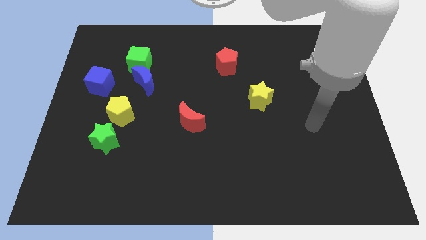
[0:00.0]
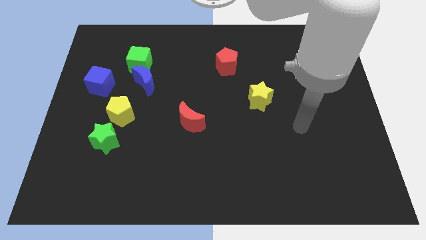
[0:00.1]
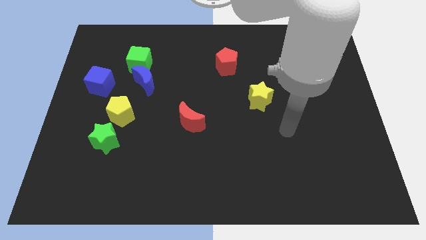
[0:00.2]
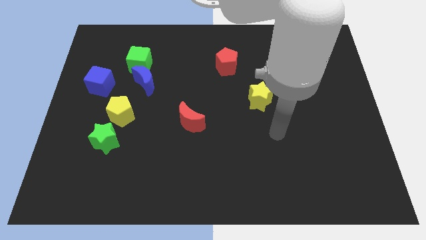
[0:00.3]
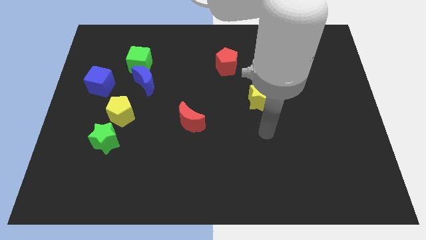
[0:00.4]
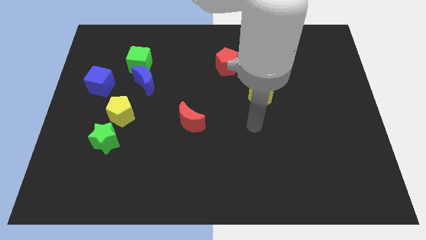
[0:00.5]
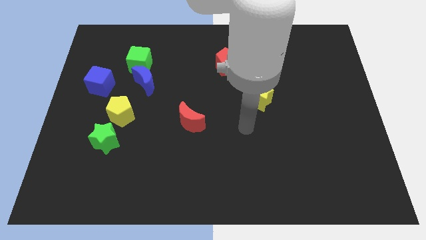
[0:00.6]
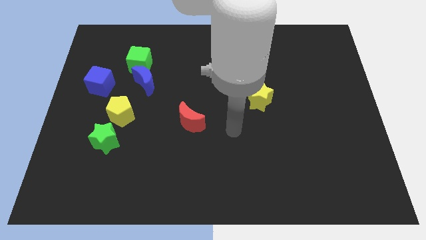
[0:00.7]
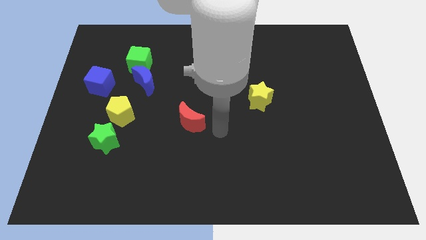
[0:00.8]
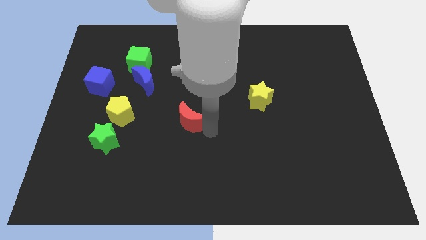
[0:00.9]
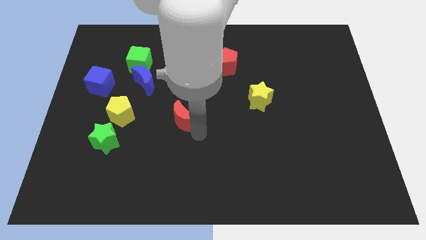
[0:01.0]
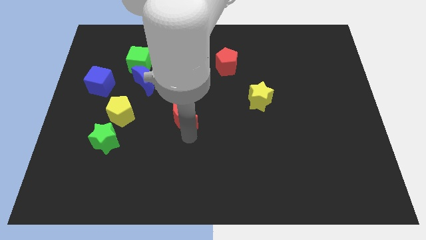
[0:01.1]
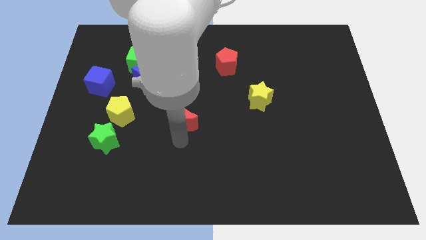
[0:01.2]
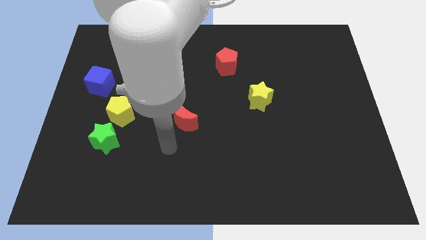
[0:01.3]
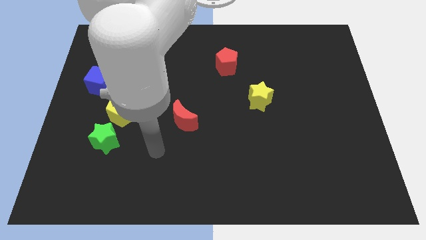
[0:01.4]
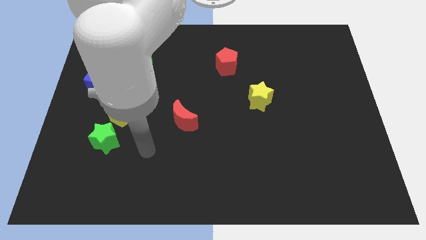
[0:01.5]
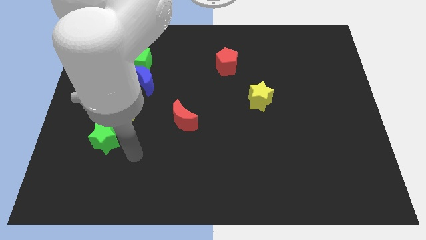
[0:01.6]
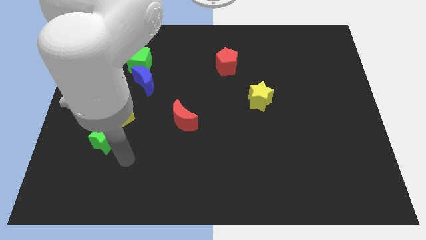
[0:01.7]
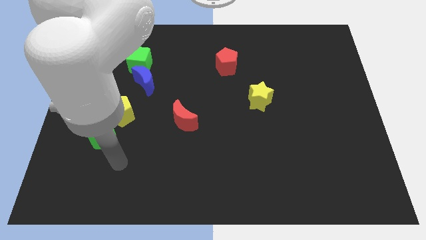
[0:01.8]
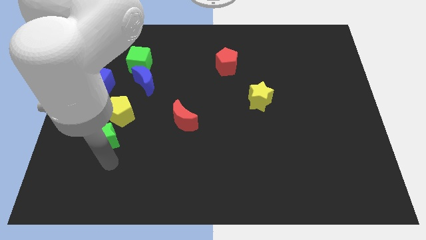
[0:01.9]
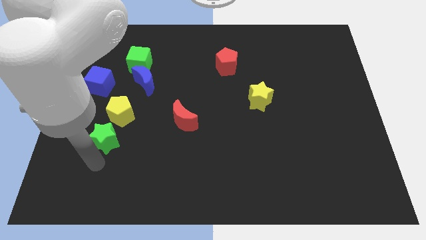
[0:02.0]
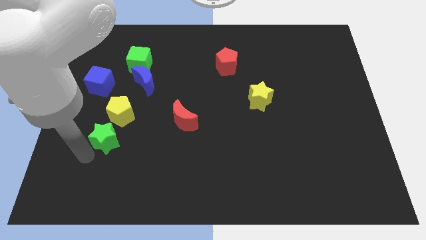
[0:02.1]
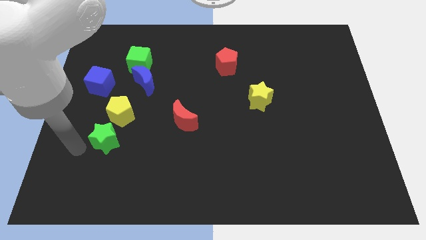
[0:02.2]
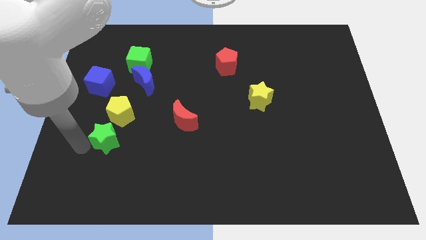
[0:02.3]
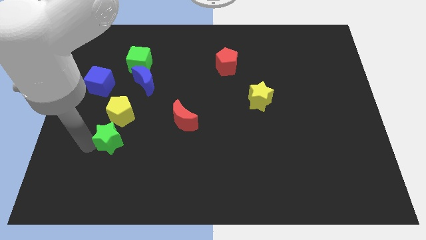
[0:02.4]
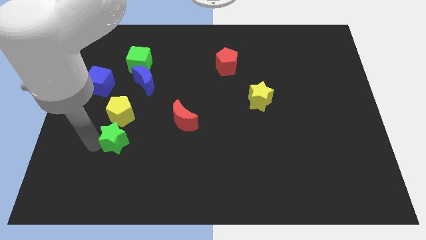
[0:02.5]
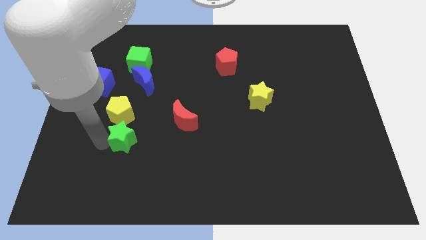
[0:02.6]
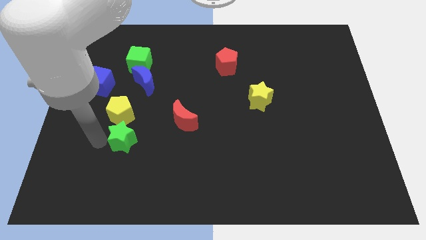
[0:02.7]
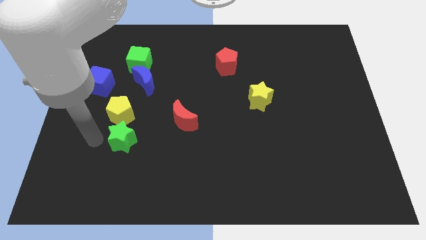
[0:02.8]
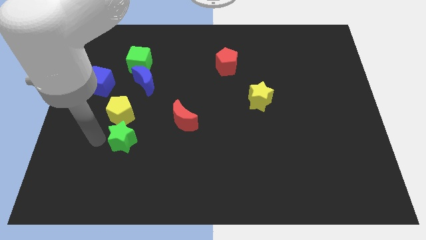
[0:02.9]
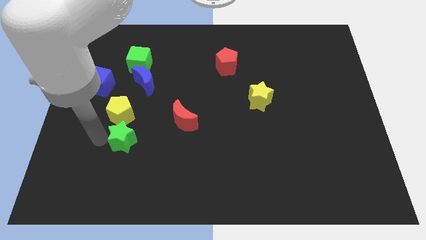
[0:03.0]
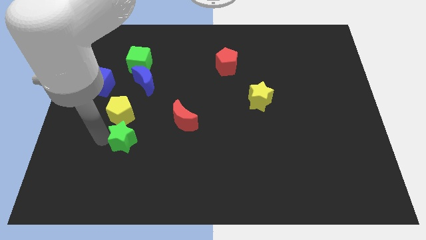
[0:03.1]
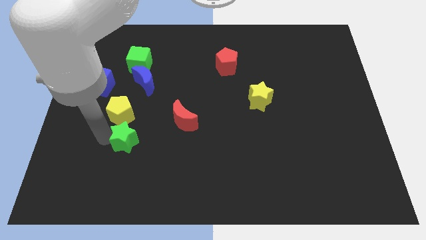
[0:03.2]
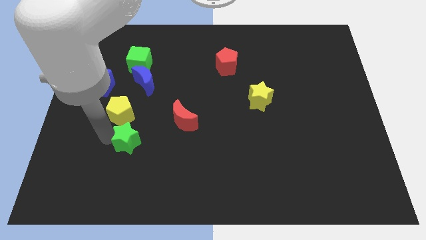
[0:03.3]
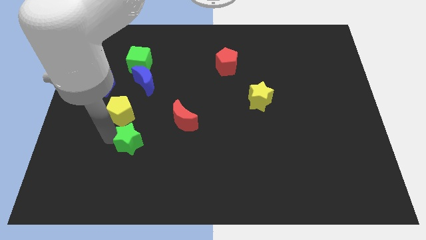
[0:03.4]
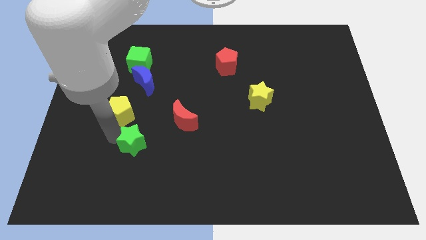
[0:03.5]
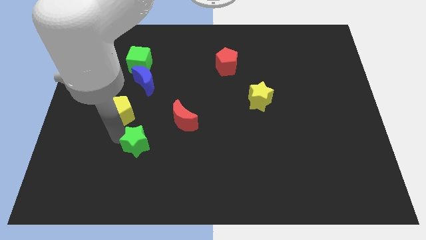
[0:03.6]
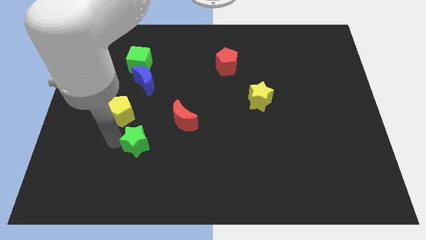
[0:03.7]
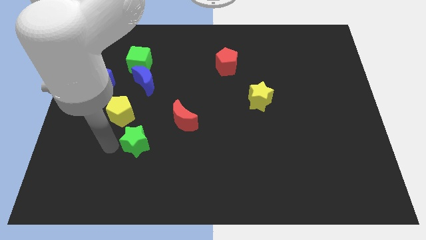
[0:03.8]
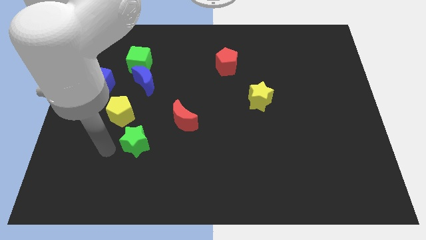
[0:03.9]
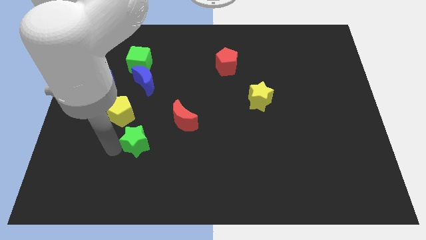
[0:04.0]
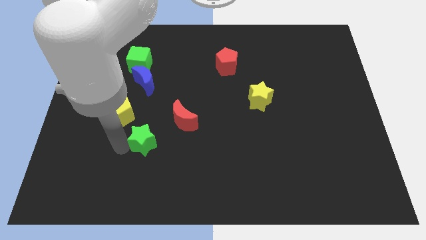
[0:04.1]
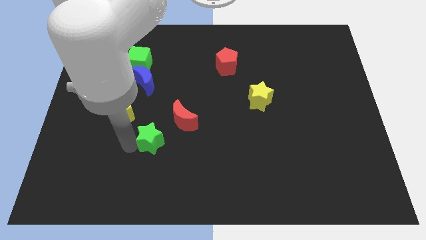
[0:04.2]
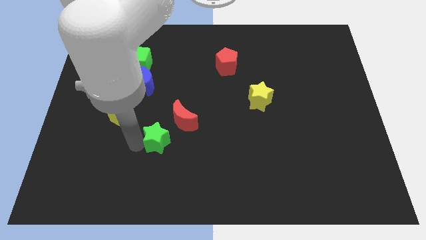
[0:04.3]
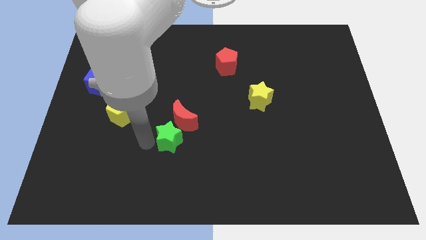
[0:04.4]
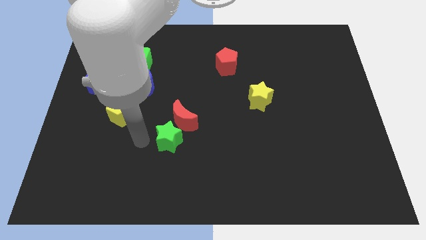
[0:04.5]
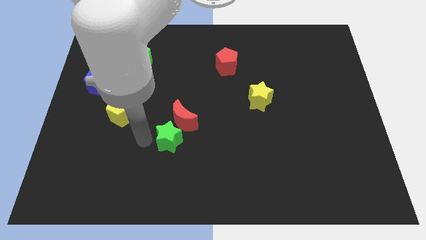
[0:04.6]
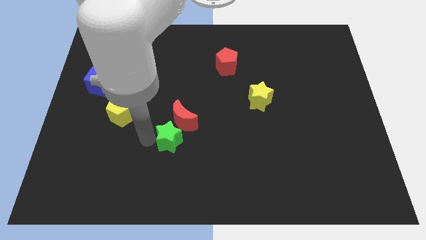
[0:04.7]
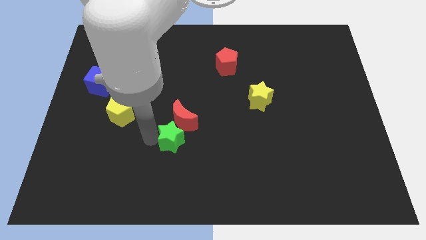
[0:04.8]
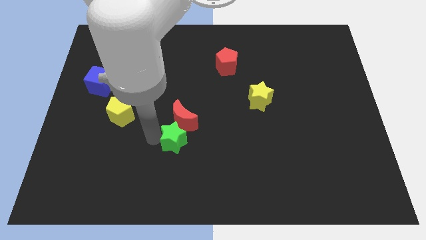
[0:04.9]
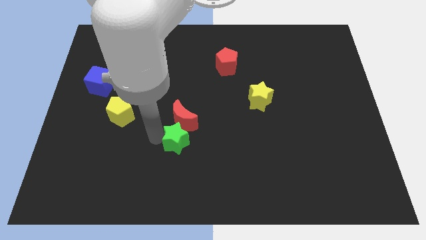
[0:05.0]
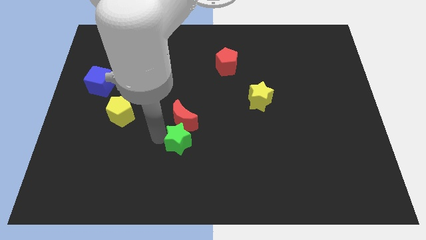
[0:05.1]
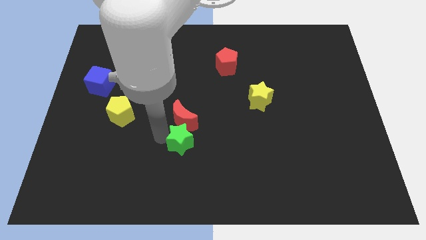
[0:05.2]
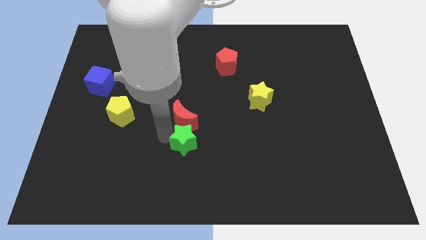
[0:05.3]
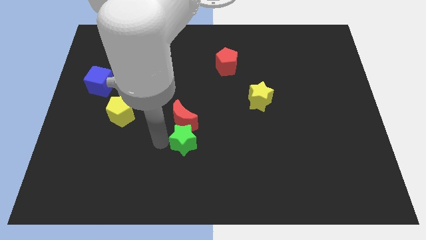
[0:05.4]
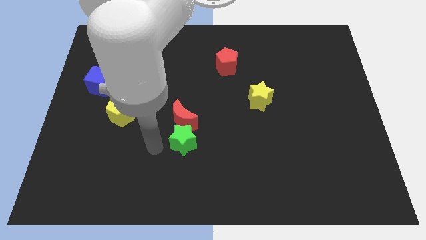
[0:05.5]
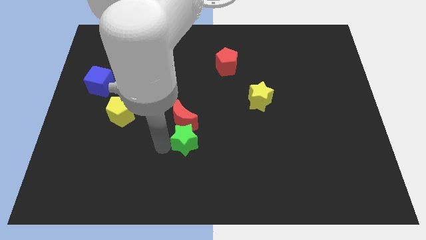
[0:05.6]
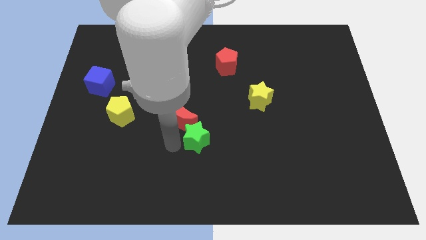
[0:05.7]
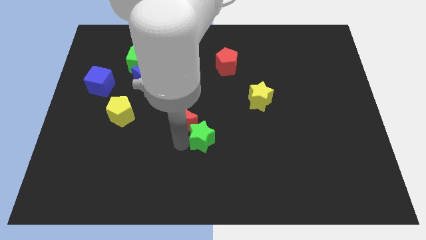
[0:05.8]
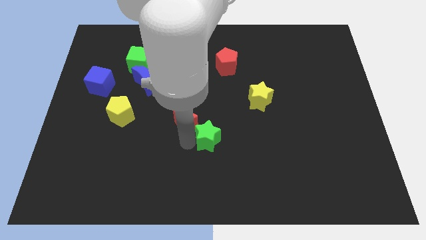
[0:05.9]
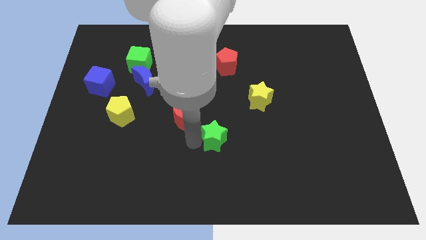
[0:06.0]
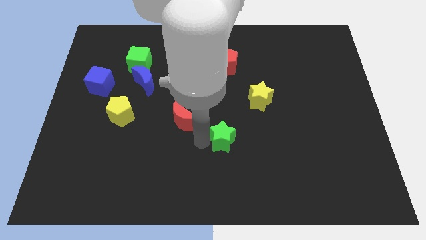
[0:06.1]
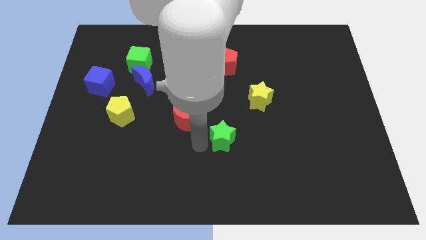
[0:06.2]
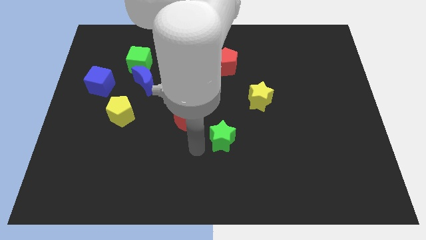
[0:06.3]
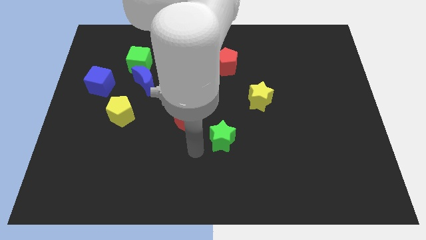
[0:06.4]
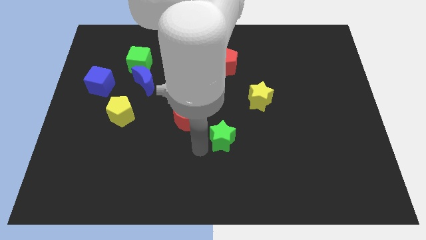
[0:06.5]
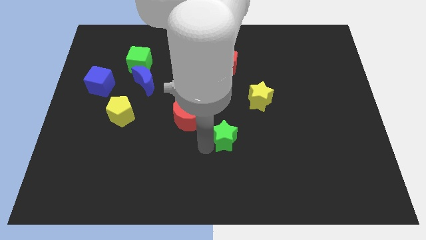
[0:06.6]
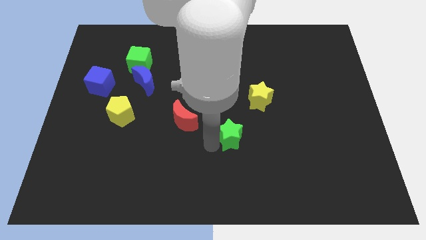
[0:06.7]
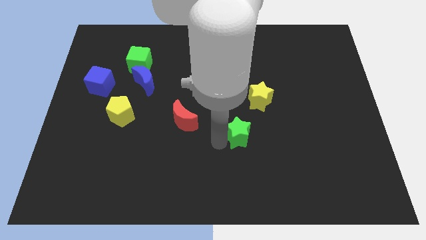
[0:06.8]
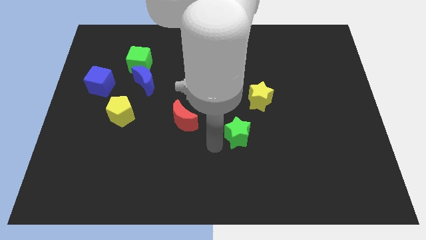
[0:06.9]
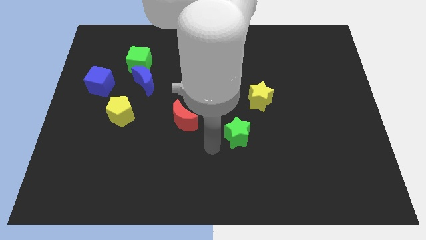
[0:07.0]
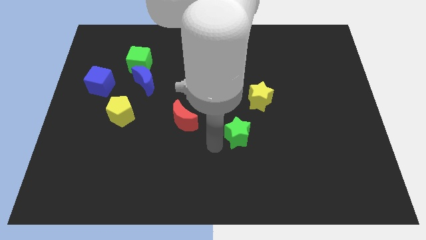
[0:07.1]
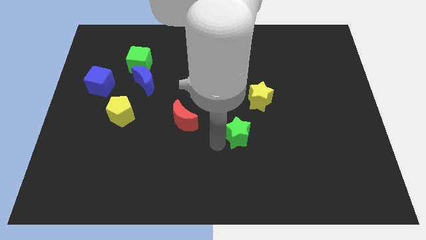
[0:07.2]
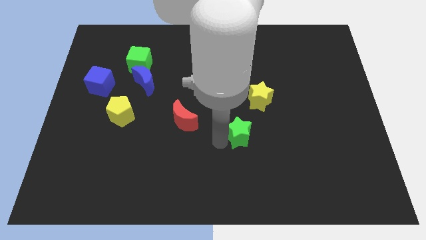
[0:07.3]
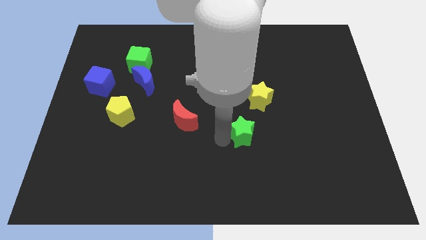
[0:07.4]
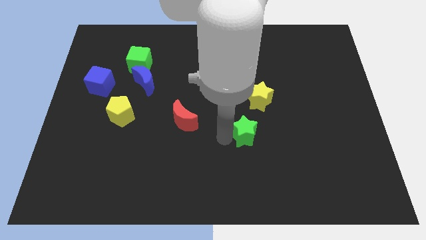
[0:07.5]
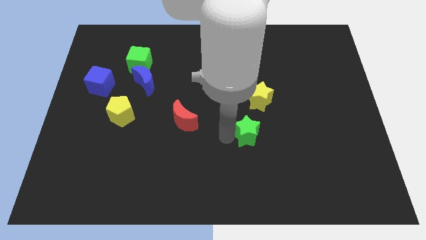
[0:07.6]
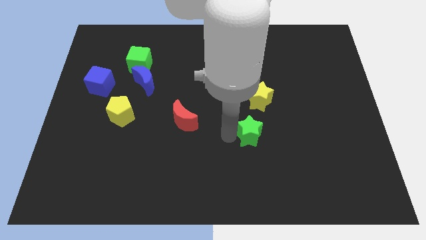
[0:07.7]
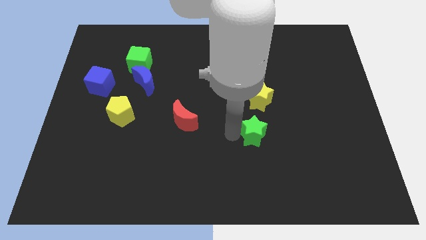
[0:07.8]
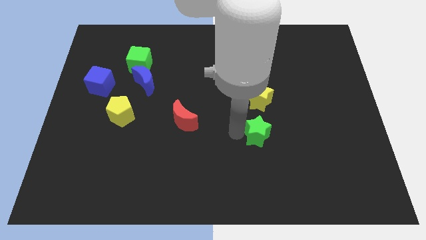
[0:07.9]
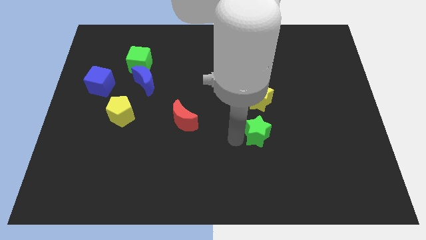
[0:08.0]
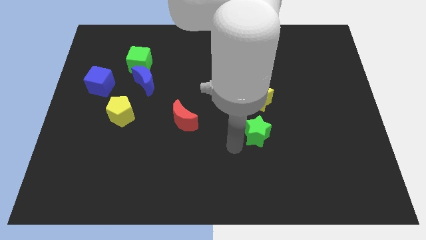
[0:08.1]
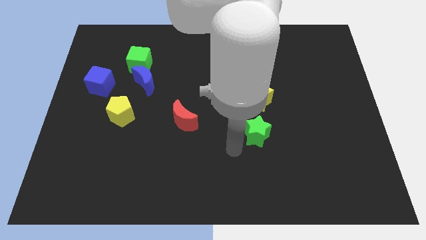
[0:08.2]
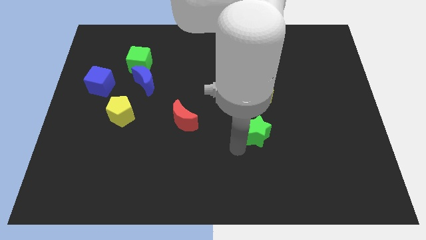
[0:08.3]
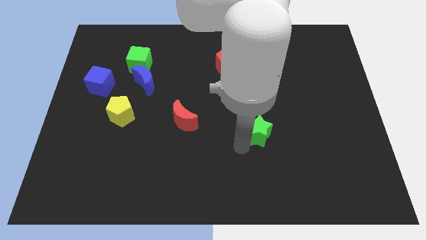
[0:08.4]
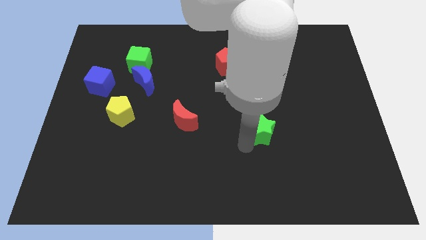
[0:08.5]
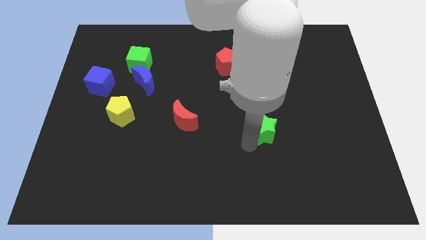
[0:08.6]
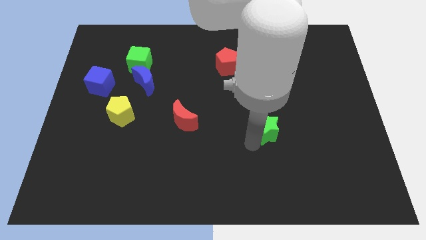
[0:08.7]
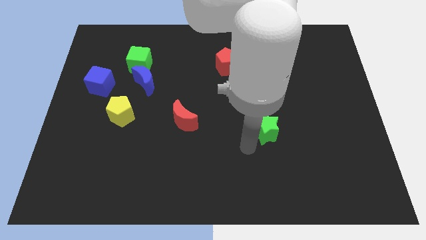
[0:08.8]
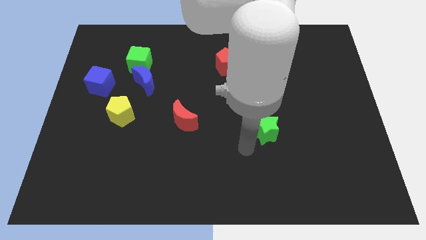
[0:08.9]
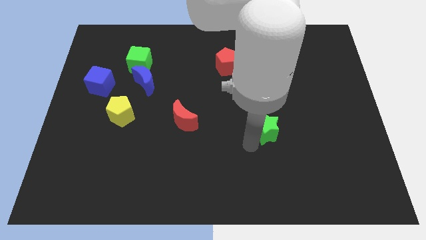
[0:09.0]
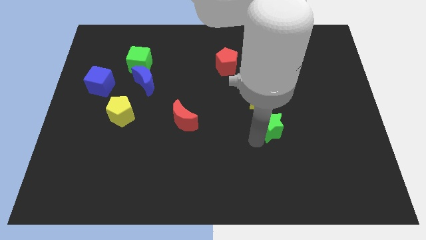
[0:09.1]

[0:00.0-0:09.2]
move the green star to the bottom right side of the yellow star
